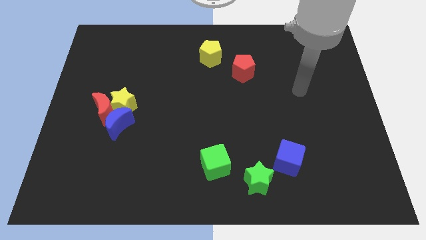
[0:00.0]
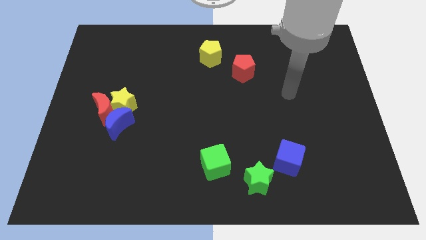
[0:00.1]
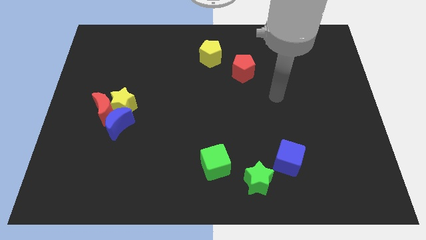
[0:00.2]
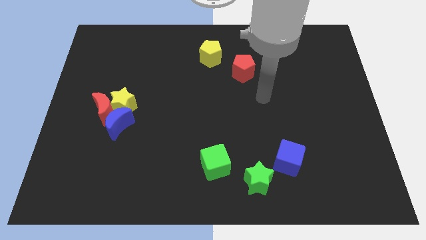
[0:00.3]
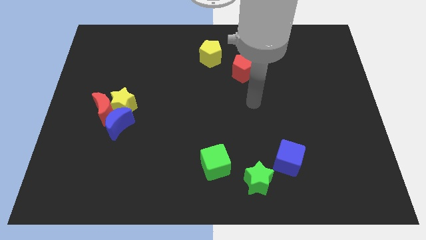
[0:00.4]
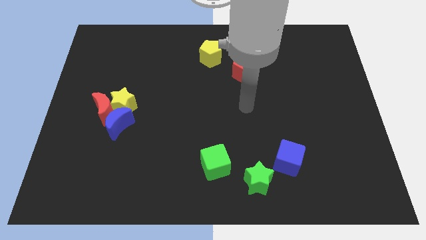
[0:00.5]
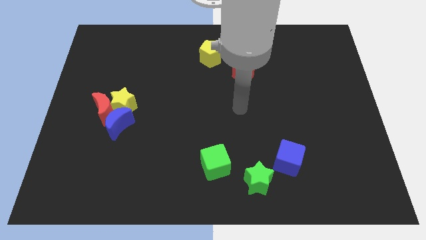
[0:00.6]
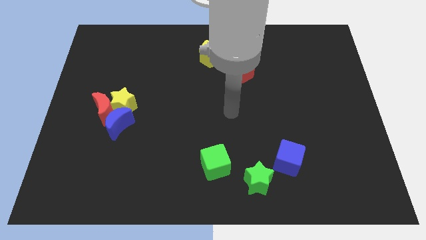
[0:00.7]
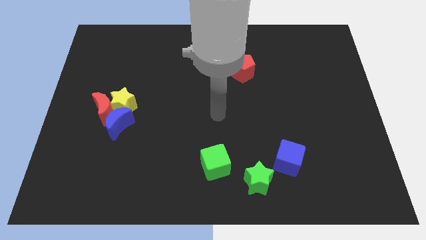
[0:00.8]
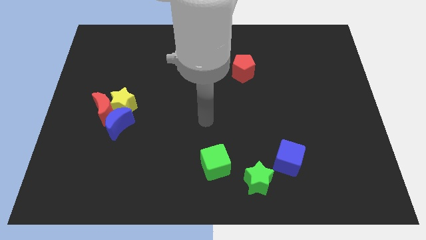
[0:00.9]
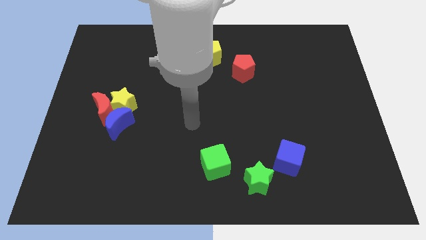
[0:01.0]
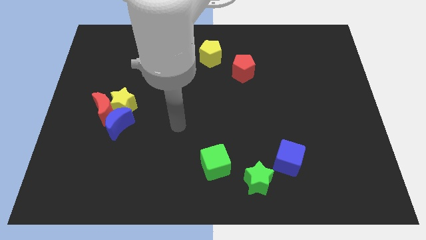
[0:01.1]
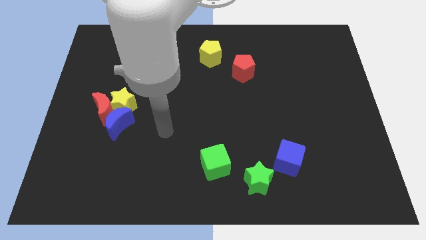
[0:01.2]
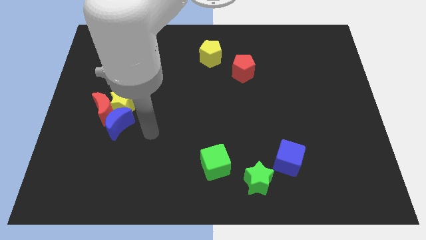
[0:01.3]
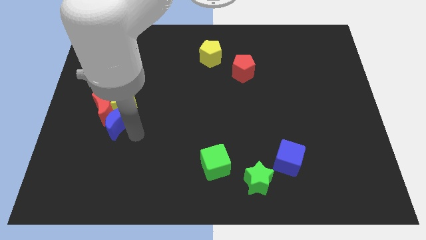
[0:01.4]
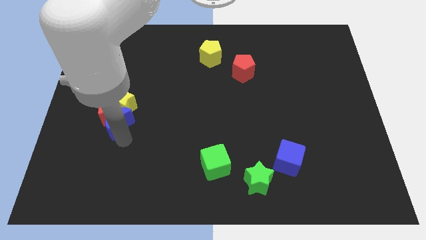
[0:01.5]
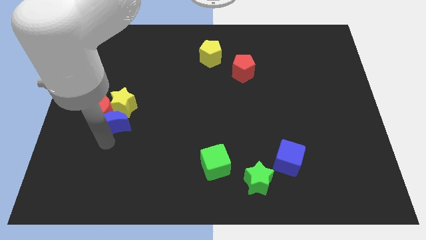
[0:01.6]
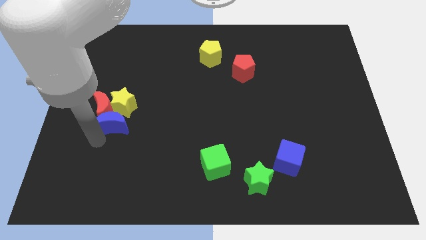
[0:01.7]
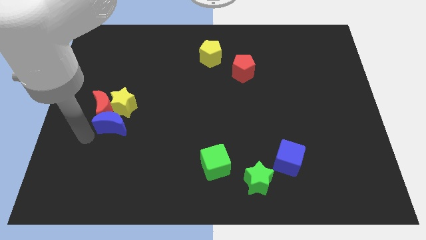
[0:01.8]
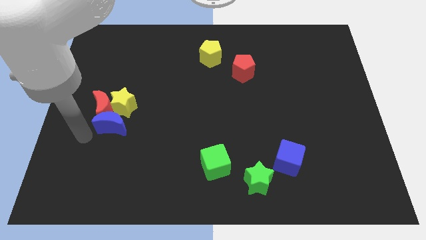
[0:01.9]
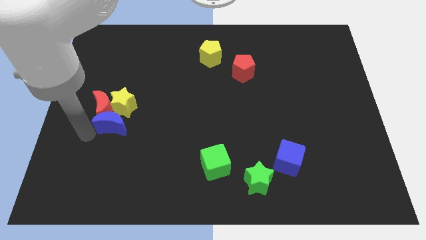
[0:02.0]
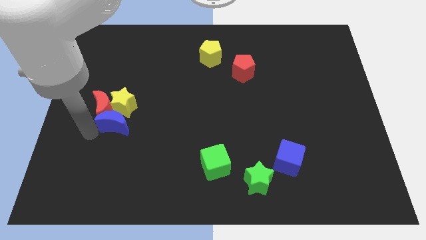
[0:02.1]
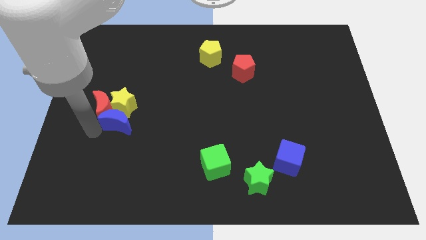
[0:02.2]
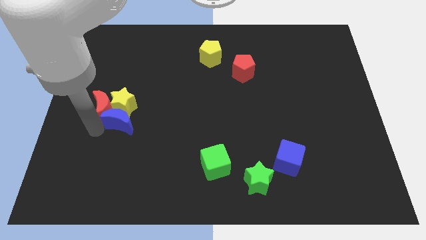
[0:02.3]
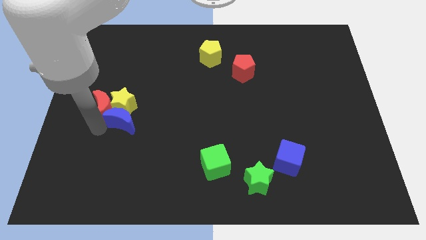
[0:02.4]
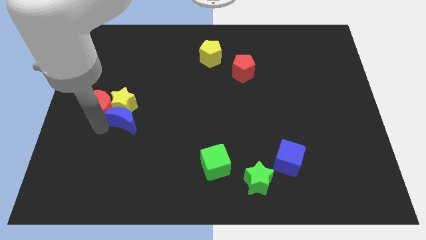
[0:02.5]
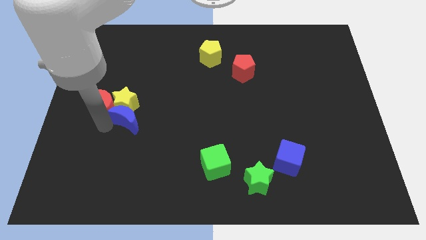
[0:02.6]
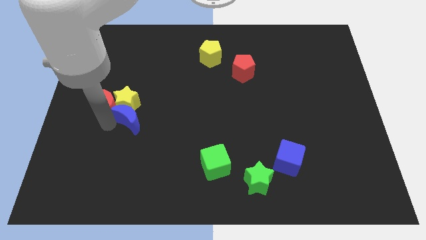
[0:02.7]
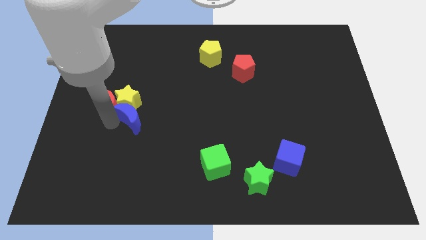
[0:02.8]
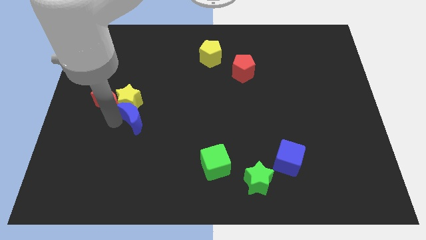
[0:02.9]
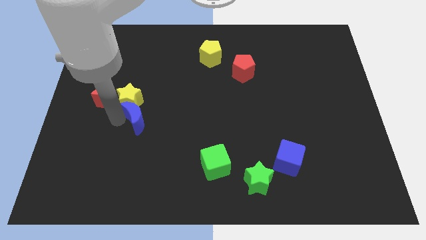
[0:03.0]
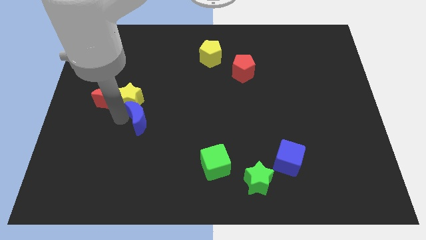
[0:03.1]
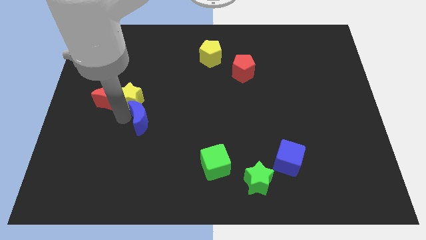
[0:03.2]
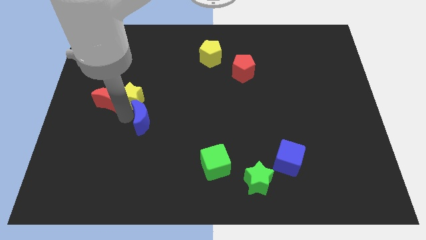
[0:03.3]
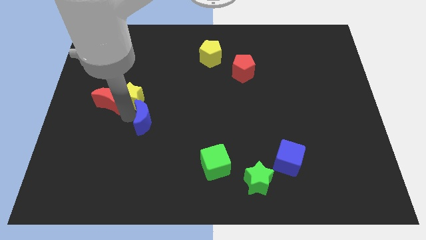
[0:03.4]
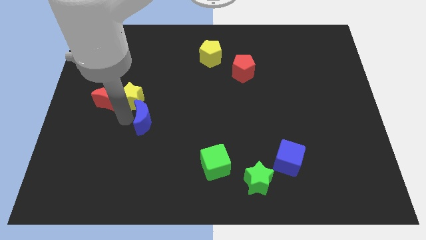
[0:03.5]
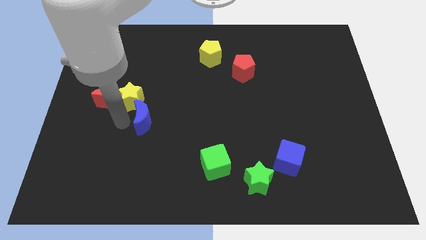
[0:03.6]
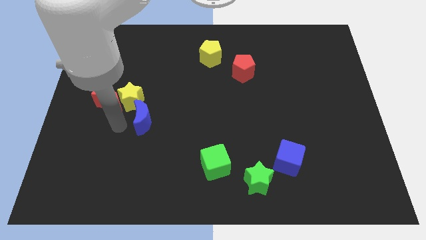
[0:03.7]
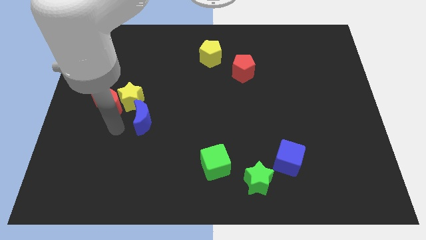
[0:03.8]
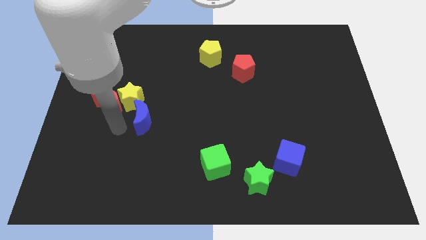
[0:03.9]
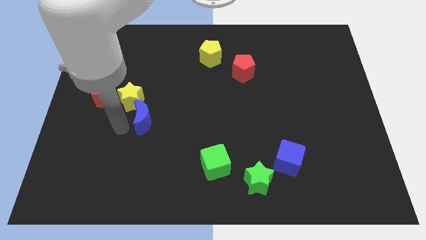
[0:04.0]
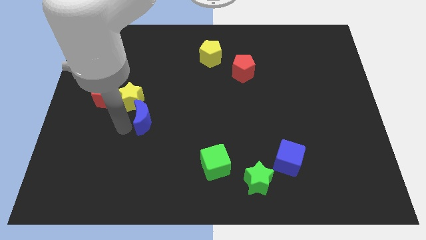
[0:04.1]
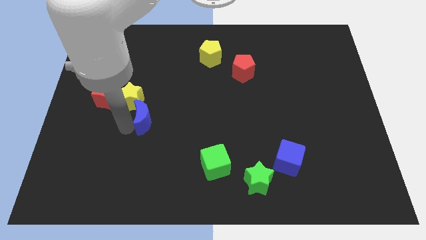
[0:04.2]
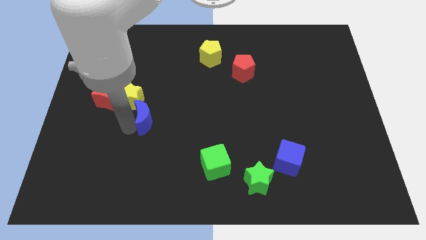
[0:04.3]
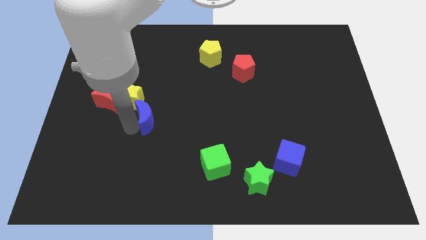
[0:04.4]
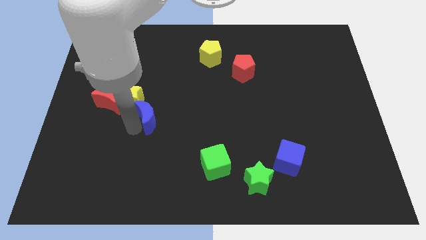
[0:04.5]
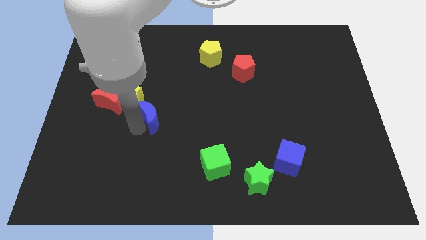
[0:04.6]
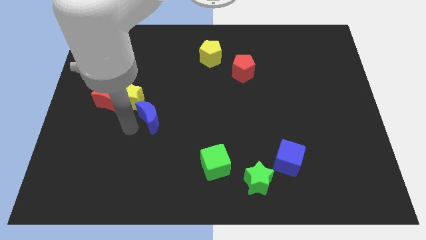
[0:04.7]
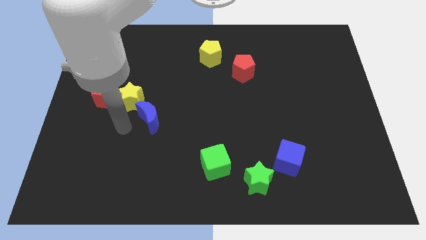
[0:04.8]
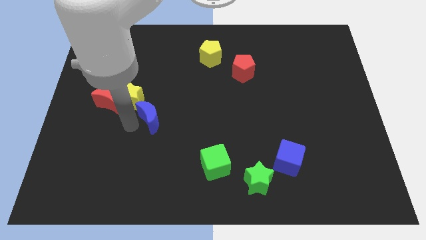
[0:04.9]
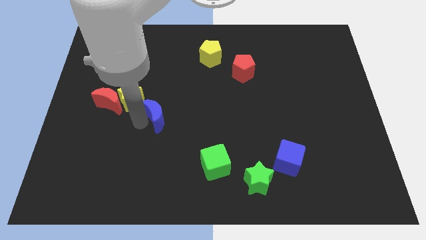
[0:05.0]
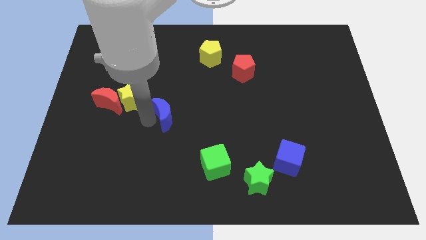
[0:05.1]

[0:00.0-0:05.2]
push the blue moon to the middle of the board

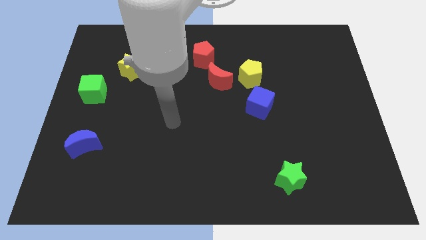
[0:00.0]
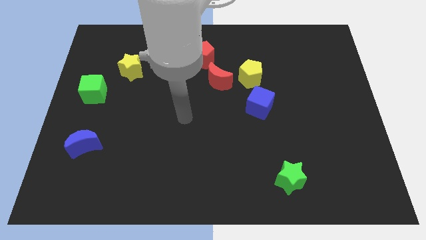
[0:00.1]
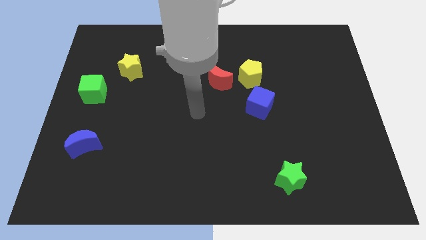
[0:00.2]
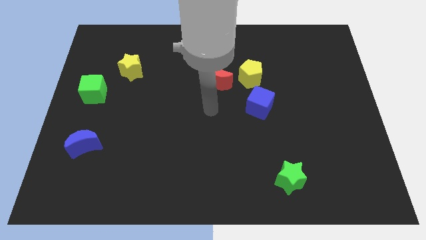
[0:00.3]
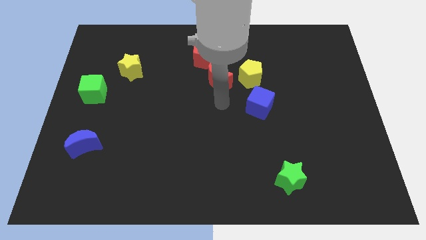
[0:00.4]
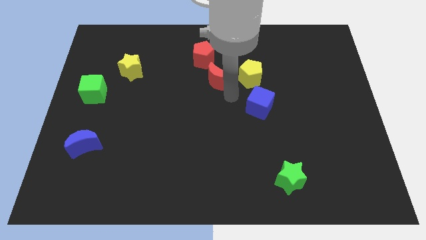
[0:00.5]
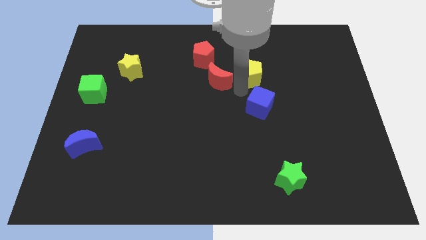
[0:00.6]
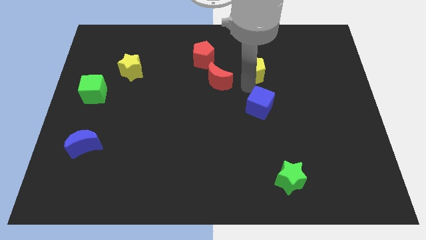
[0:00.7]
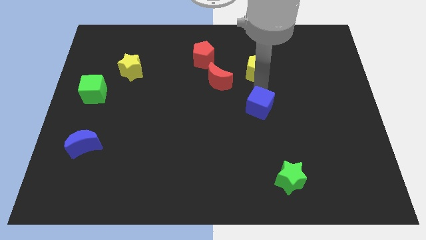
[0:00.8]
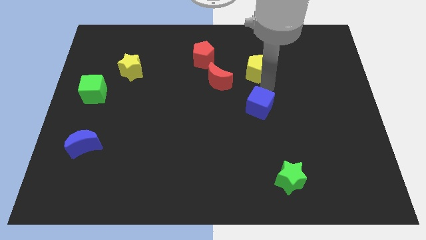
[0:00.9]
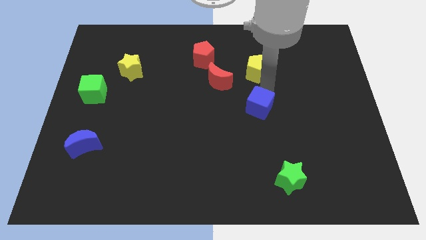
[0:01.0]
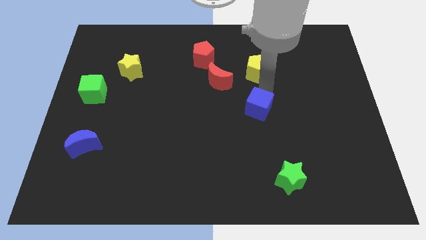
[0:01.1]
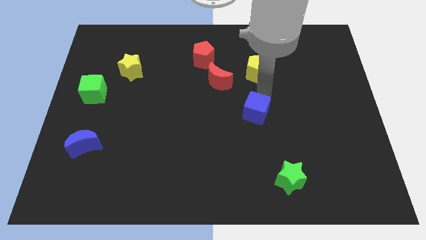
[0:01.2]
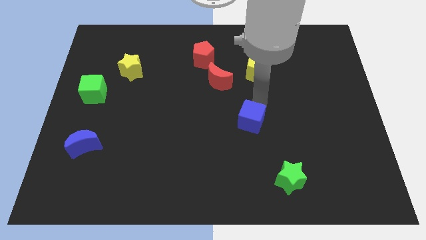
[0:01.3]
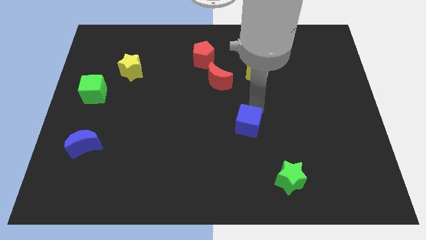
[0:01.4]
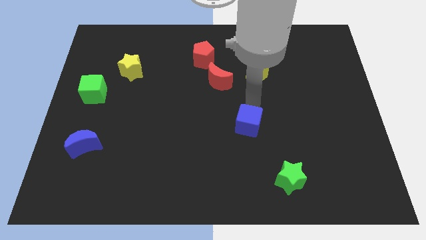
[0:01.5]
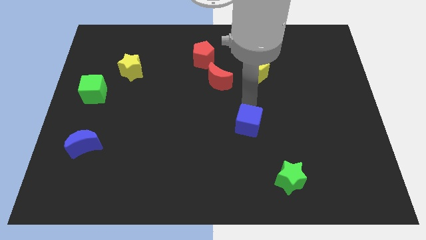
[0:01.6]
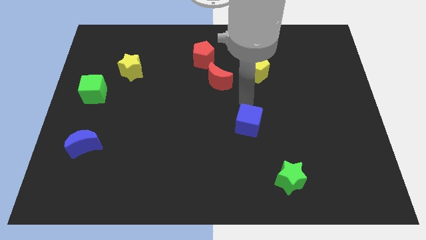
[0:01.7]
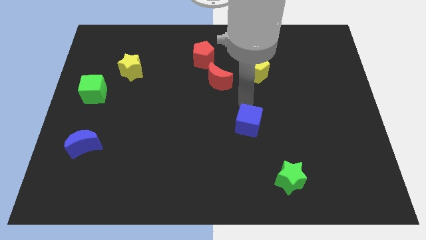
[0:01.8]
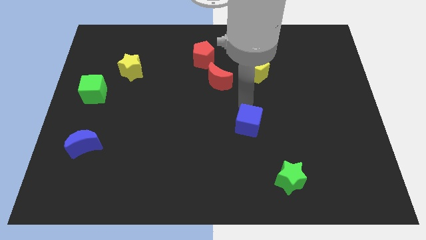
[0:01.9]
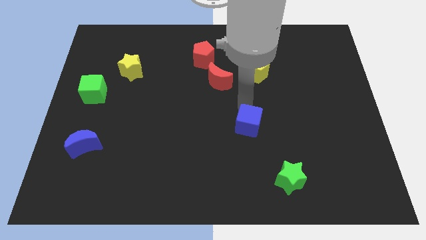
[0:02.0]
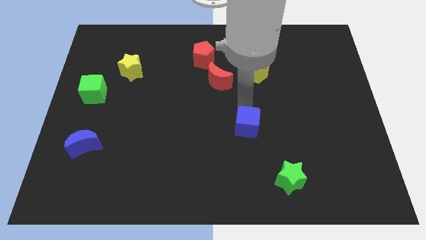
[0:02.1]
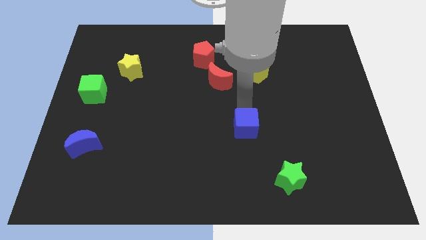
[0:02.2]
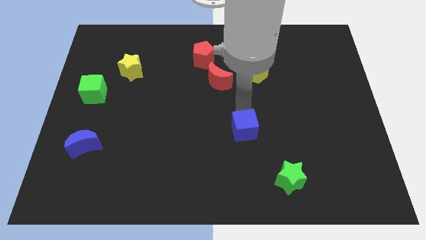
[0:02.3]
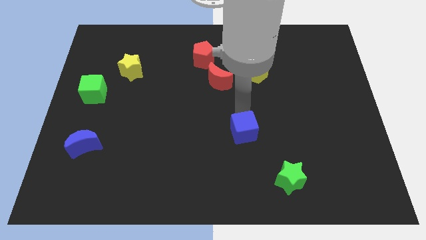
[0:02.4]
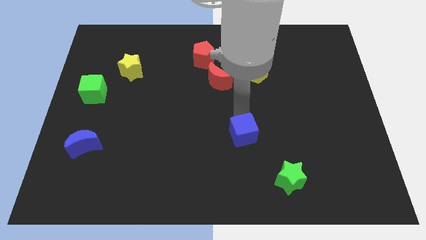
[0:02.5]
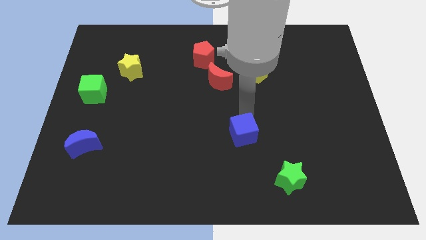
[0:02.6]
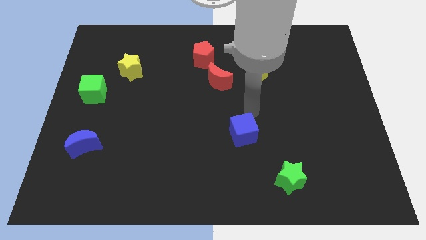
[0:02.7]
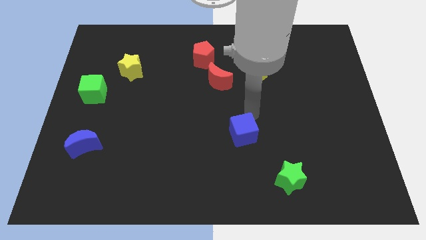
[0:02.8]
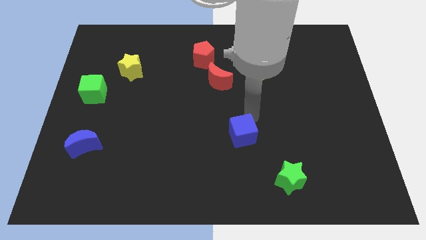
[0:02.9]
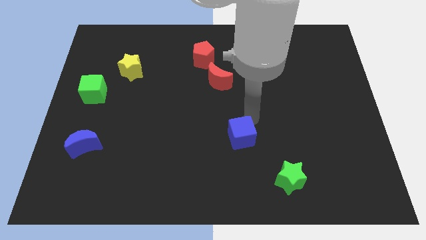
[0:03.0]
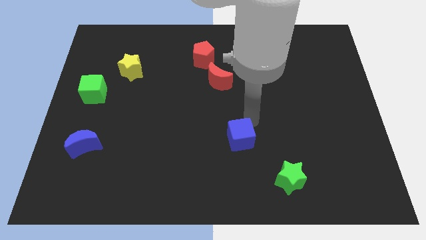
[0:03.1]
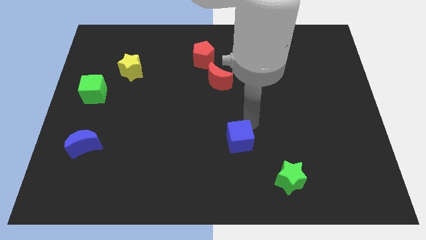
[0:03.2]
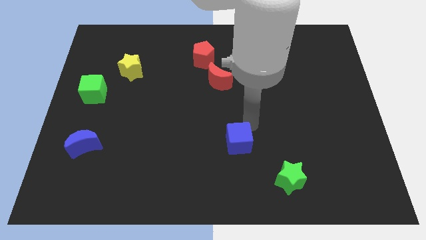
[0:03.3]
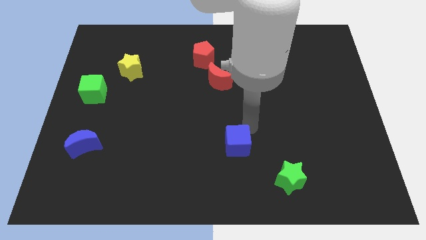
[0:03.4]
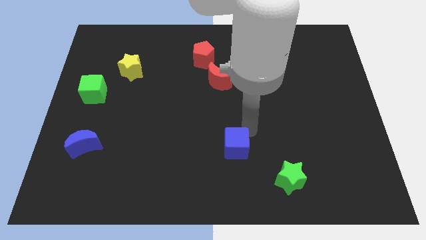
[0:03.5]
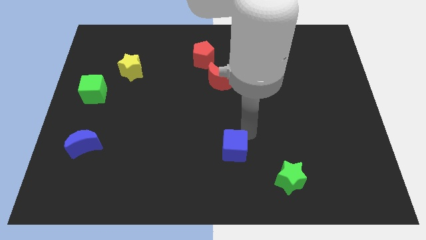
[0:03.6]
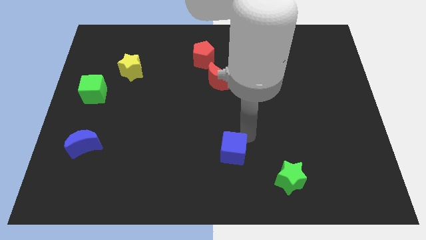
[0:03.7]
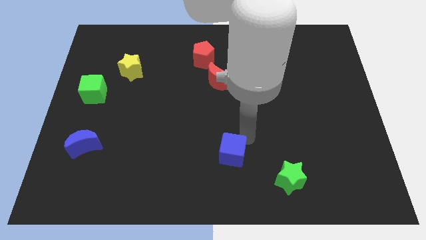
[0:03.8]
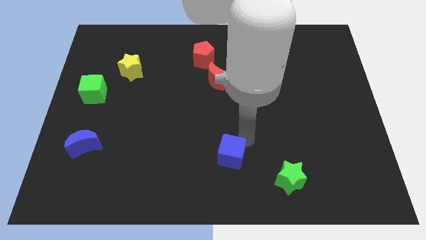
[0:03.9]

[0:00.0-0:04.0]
move the blue cube to the bottom side
